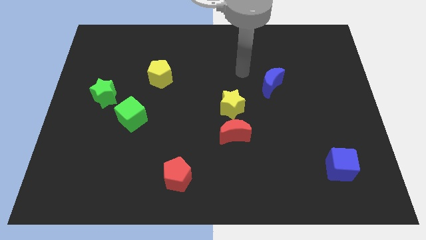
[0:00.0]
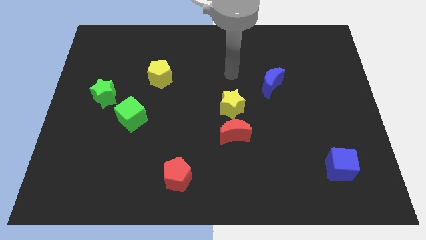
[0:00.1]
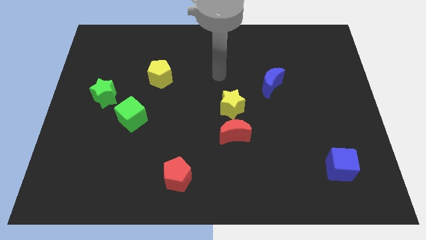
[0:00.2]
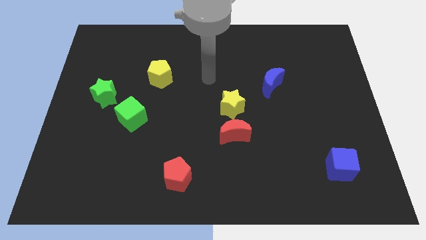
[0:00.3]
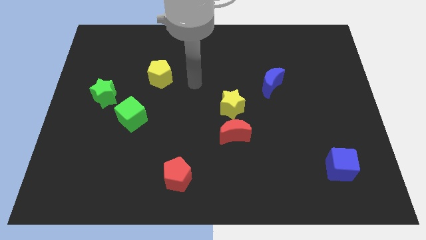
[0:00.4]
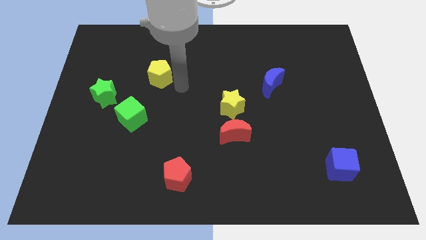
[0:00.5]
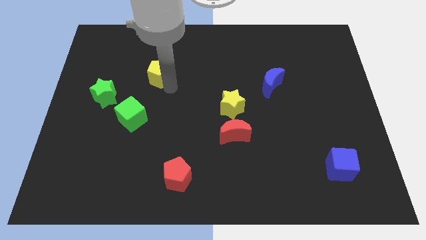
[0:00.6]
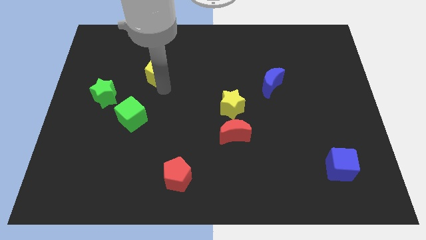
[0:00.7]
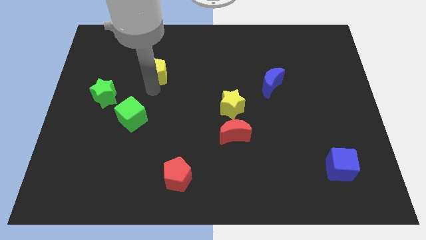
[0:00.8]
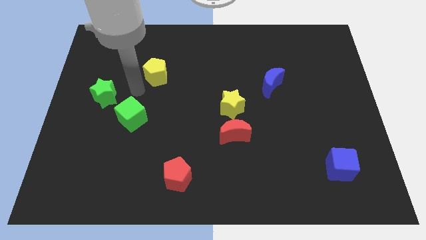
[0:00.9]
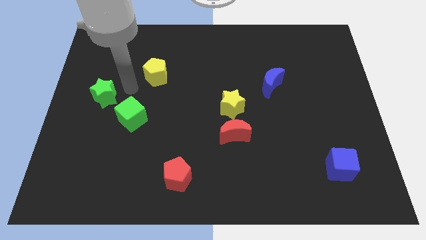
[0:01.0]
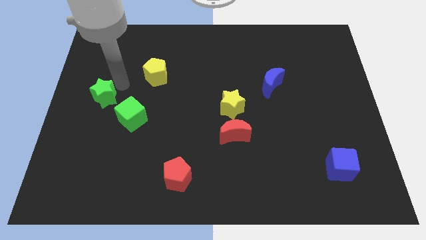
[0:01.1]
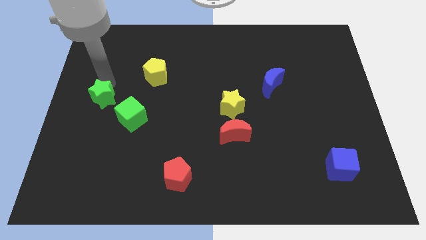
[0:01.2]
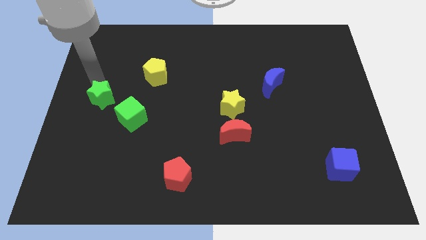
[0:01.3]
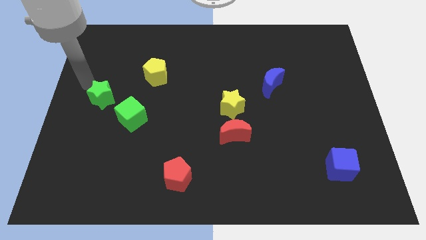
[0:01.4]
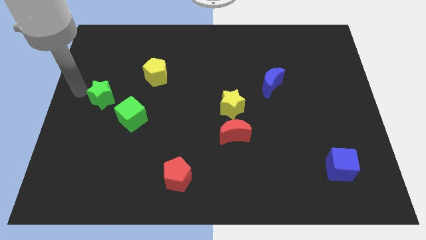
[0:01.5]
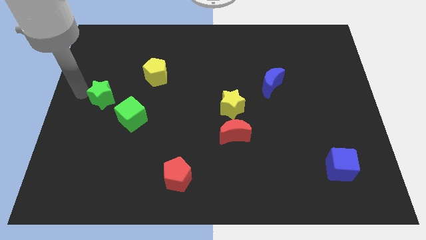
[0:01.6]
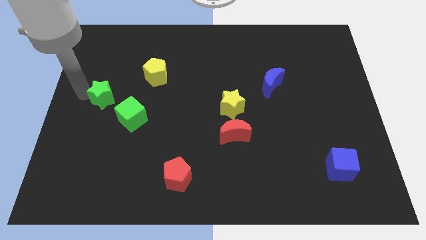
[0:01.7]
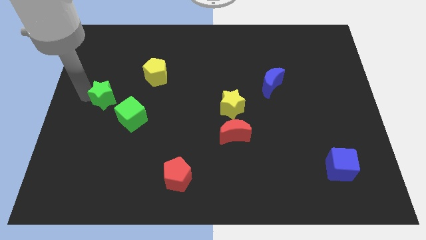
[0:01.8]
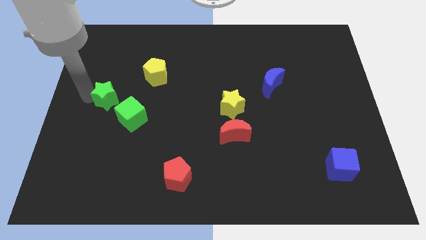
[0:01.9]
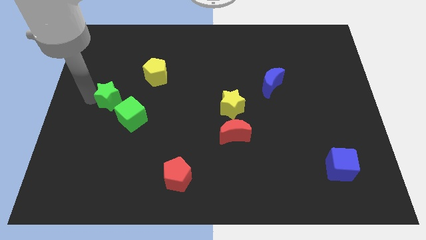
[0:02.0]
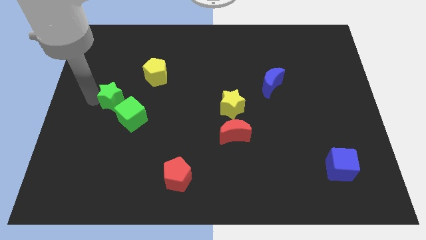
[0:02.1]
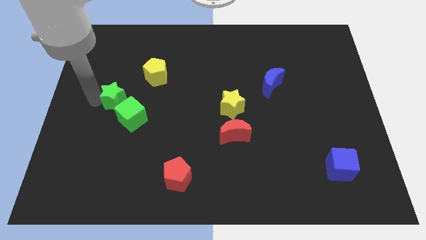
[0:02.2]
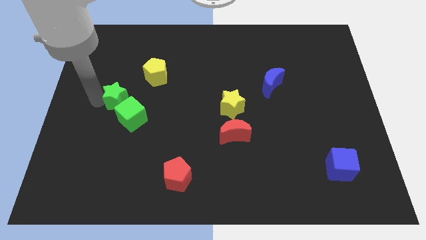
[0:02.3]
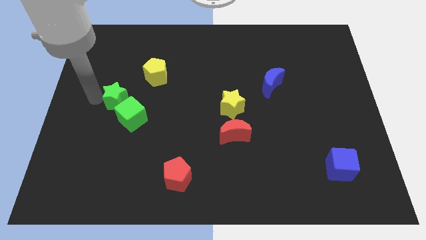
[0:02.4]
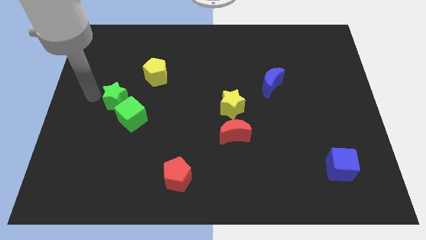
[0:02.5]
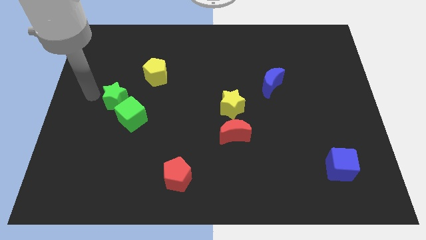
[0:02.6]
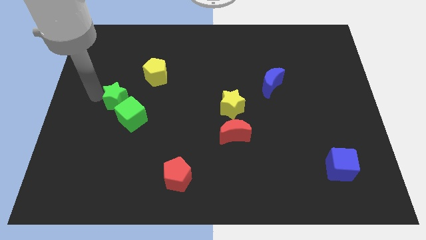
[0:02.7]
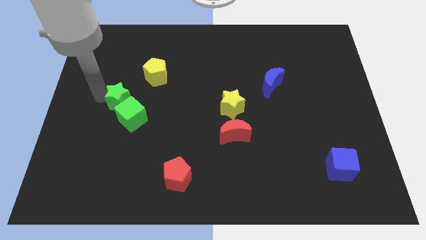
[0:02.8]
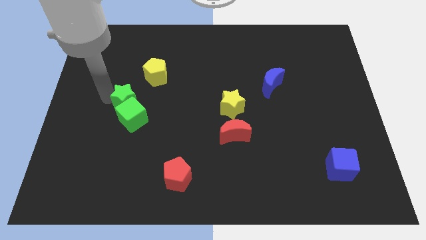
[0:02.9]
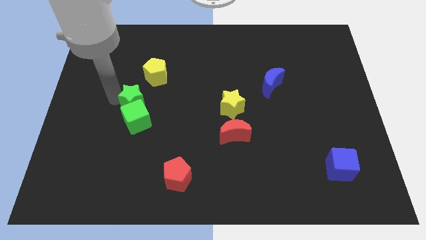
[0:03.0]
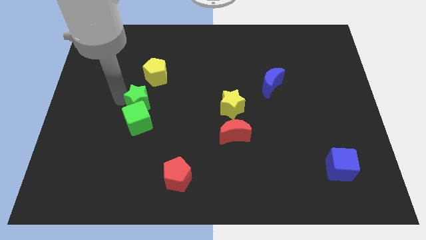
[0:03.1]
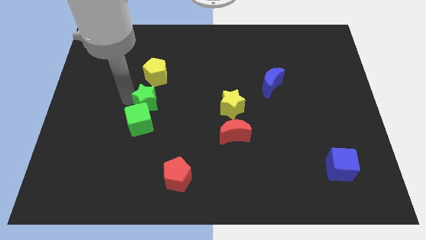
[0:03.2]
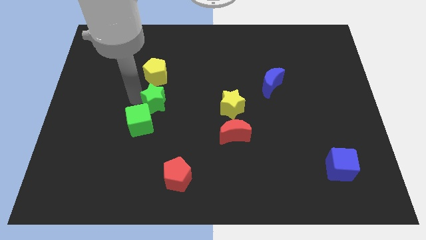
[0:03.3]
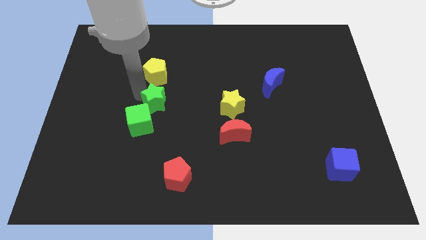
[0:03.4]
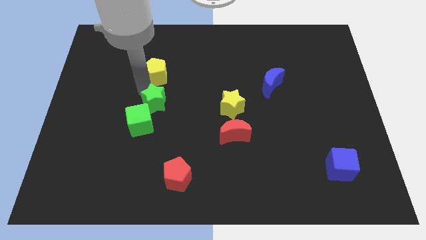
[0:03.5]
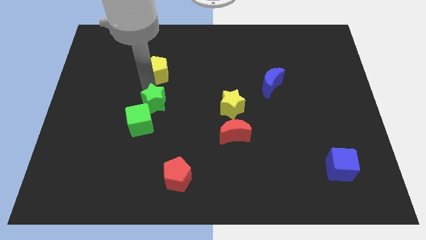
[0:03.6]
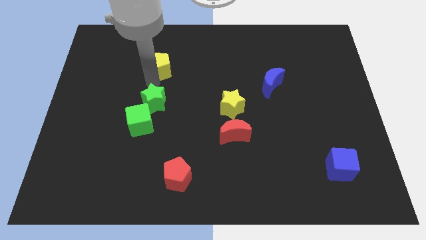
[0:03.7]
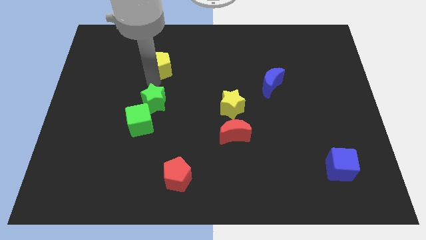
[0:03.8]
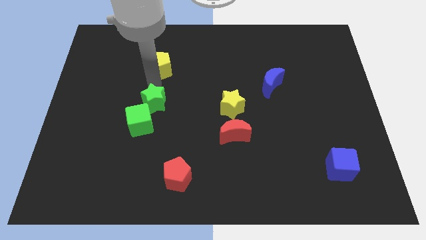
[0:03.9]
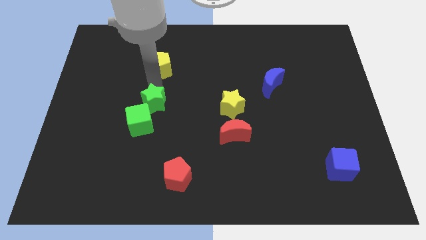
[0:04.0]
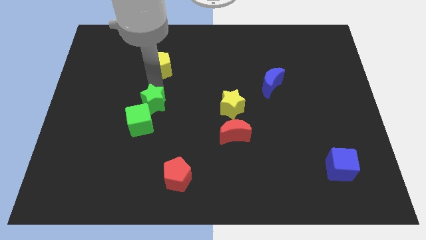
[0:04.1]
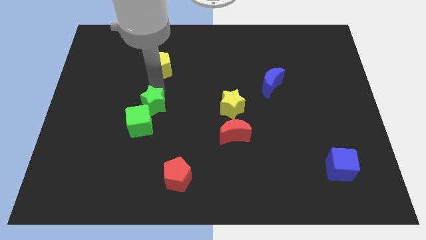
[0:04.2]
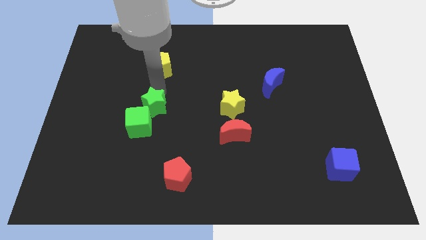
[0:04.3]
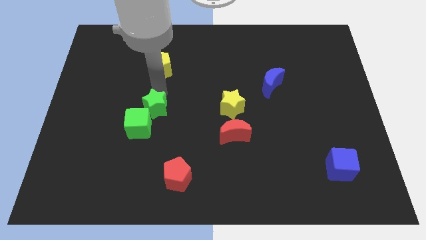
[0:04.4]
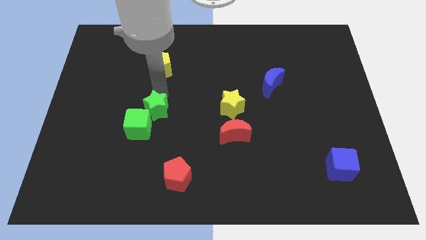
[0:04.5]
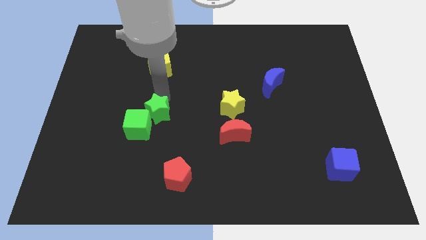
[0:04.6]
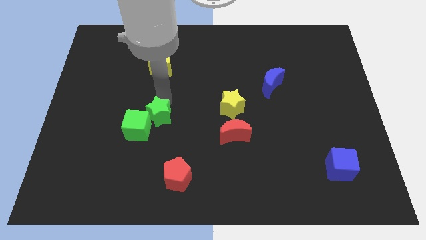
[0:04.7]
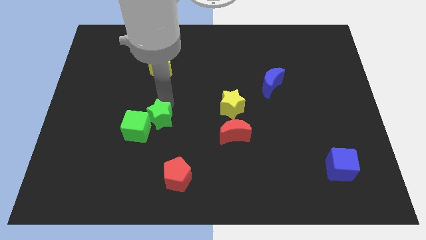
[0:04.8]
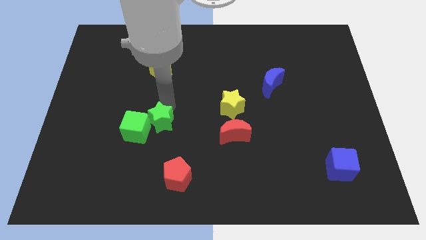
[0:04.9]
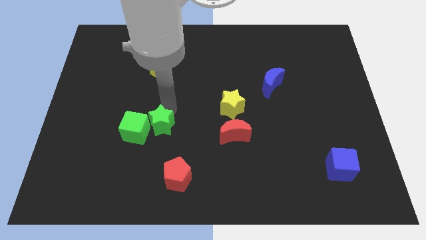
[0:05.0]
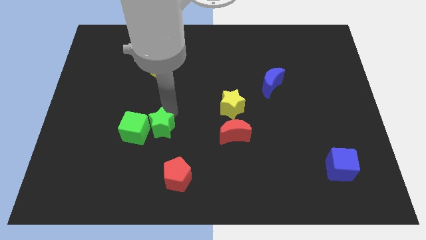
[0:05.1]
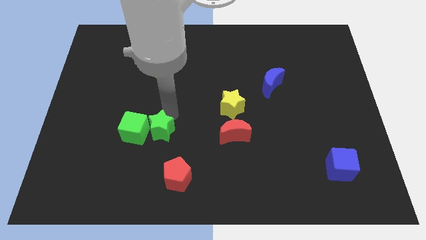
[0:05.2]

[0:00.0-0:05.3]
put the green star to the bottom right side of the green cube

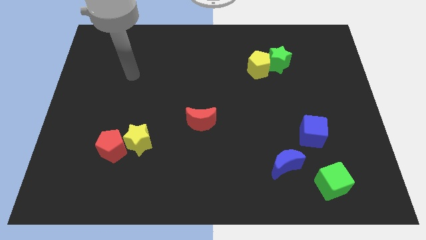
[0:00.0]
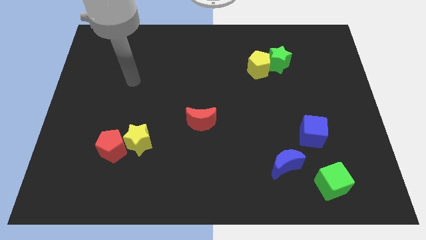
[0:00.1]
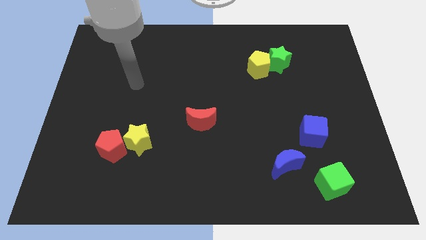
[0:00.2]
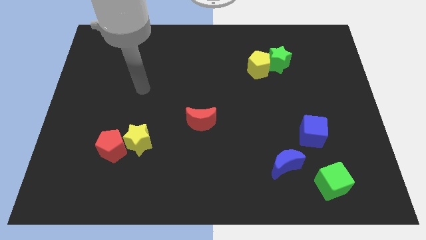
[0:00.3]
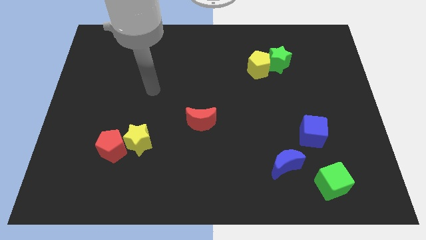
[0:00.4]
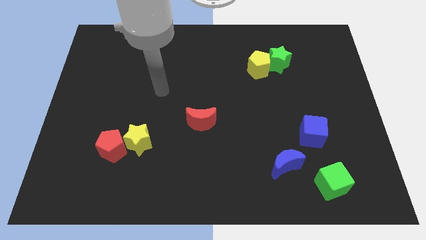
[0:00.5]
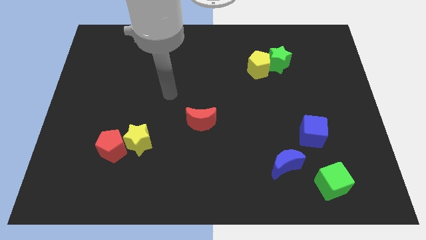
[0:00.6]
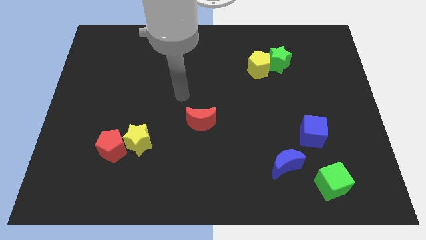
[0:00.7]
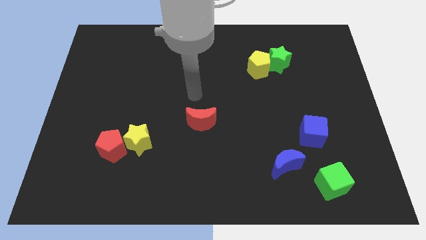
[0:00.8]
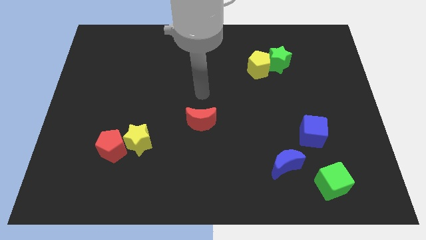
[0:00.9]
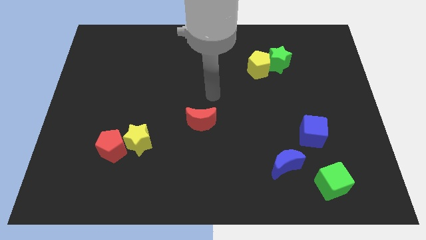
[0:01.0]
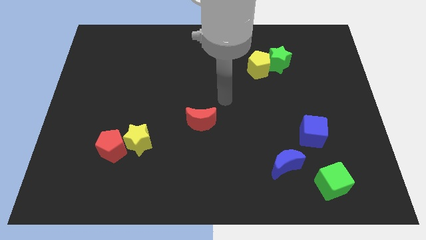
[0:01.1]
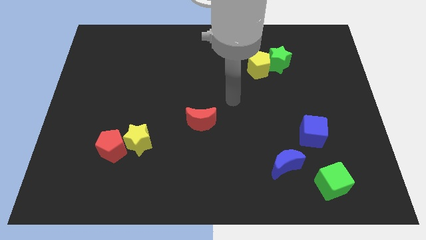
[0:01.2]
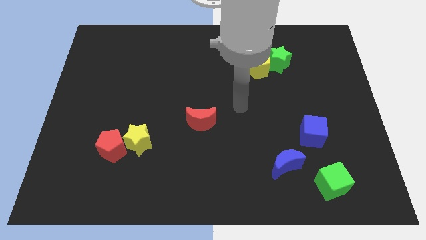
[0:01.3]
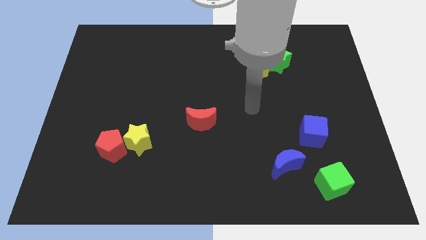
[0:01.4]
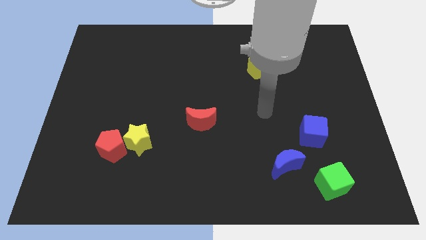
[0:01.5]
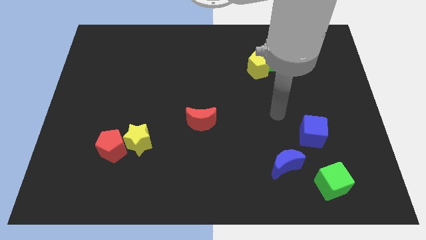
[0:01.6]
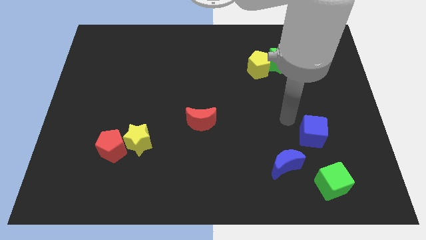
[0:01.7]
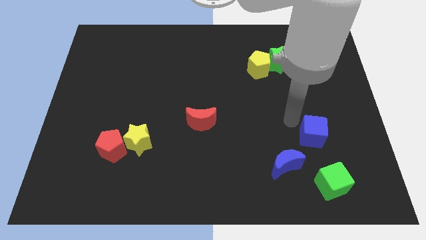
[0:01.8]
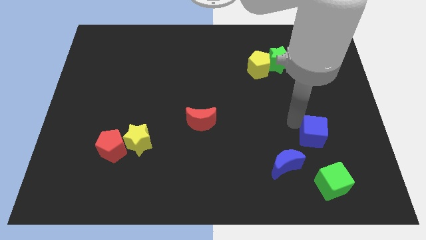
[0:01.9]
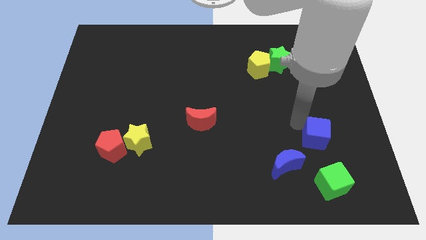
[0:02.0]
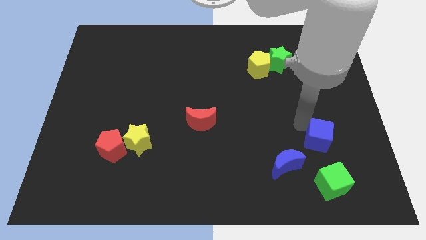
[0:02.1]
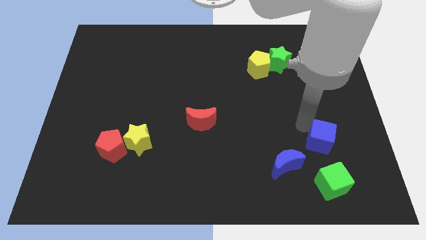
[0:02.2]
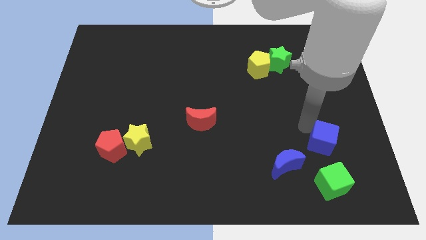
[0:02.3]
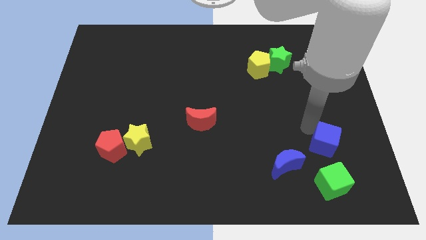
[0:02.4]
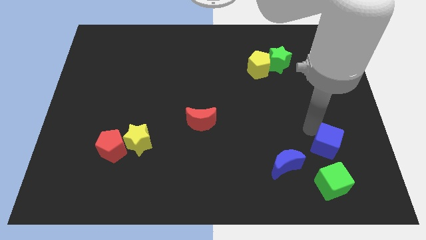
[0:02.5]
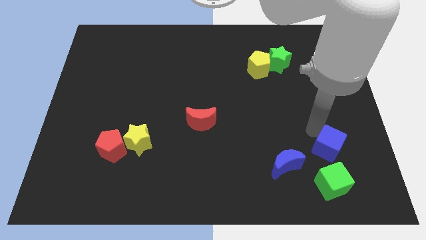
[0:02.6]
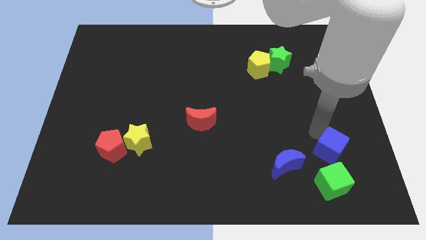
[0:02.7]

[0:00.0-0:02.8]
push the blue cube to the top right side of the green cube
